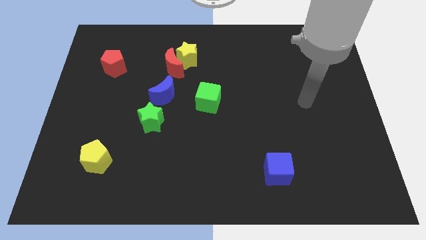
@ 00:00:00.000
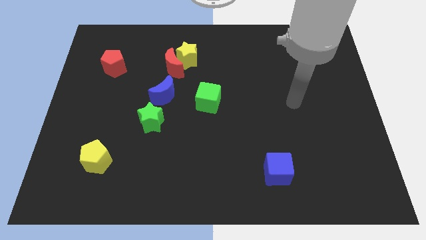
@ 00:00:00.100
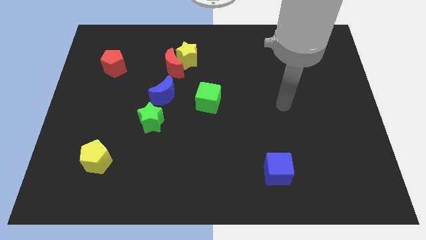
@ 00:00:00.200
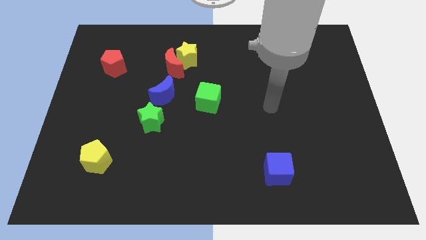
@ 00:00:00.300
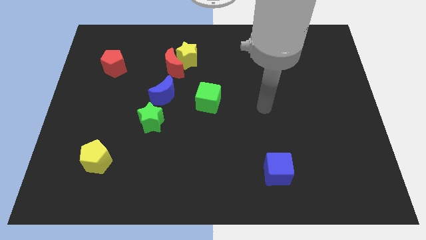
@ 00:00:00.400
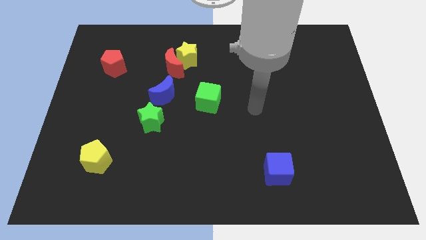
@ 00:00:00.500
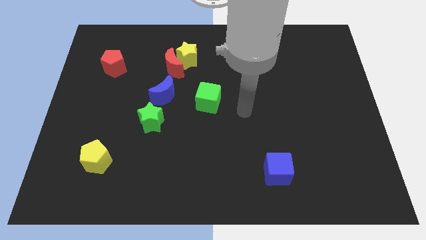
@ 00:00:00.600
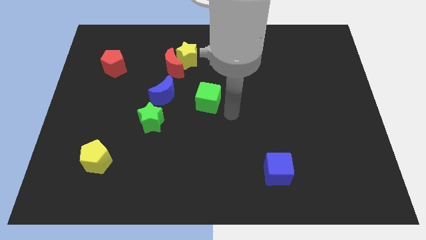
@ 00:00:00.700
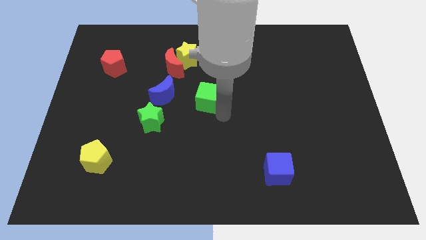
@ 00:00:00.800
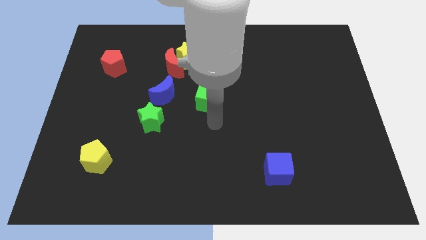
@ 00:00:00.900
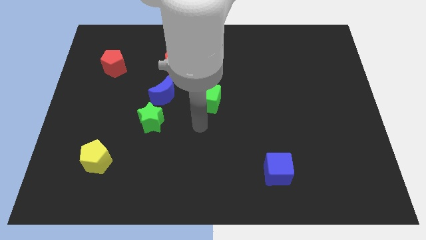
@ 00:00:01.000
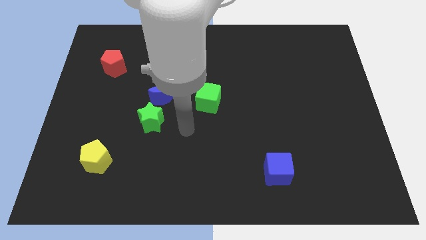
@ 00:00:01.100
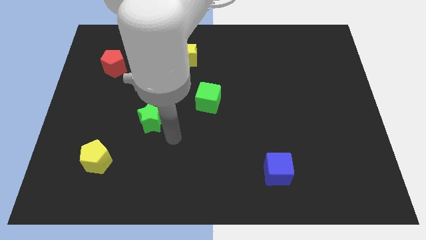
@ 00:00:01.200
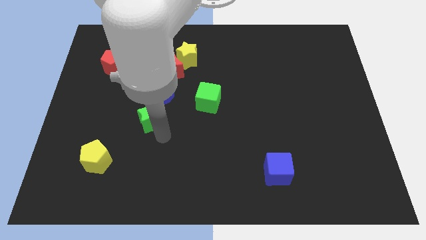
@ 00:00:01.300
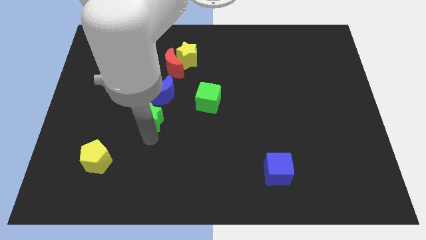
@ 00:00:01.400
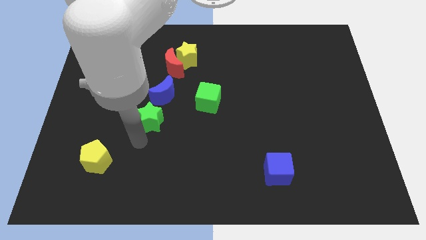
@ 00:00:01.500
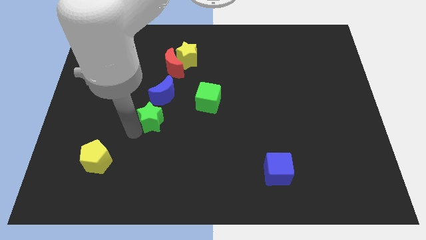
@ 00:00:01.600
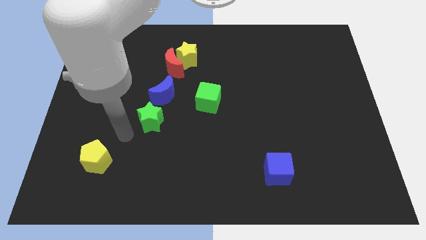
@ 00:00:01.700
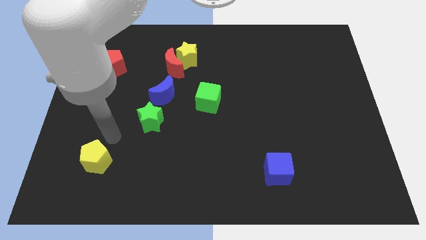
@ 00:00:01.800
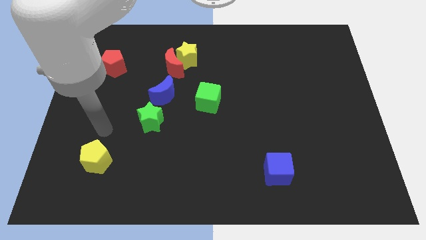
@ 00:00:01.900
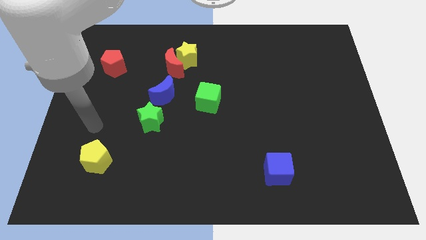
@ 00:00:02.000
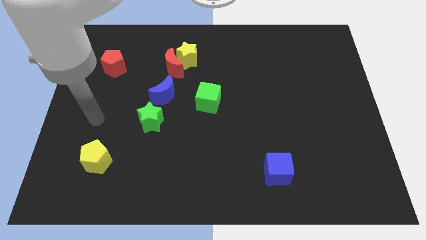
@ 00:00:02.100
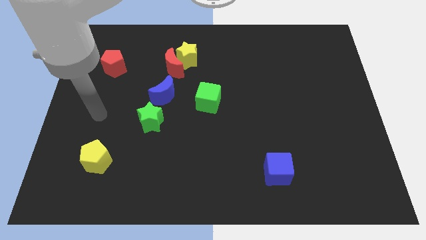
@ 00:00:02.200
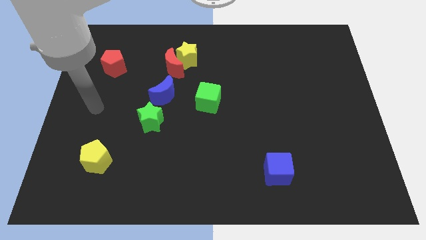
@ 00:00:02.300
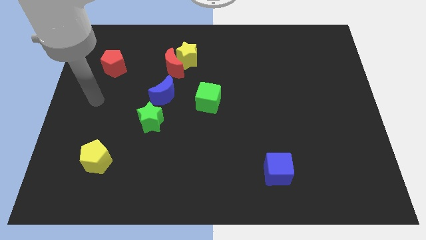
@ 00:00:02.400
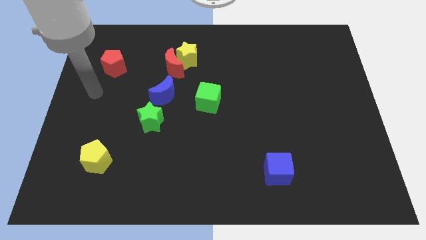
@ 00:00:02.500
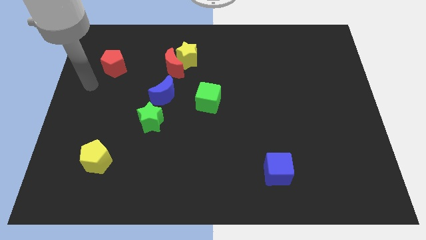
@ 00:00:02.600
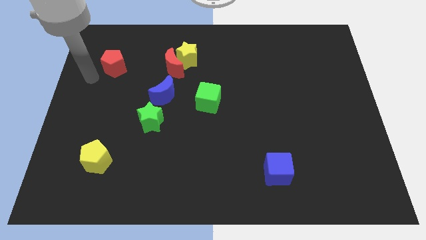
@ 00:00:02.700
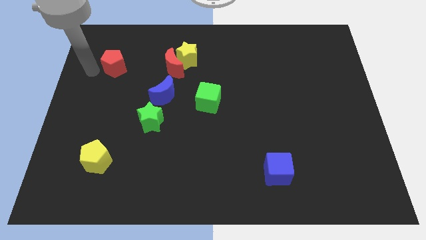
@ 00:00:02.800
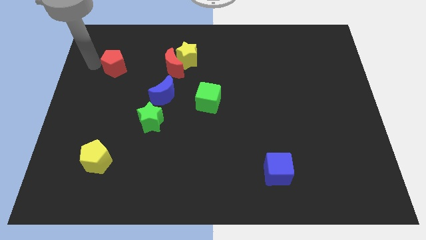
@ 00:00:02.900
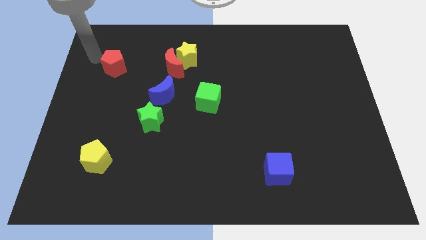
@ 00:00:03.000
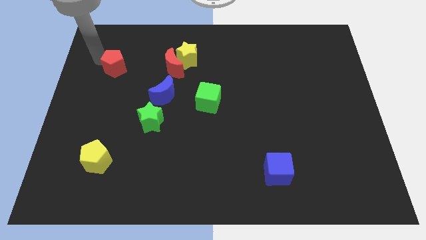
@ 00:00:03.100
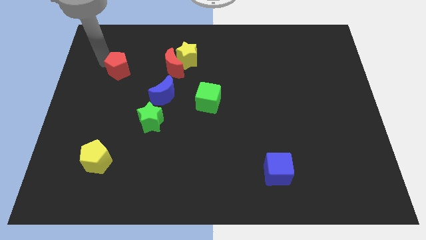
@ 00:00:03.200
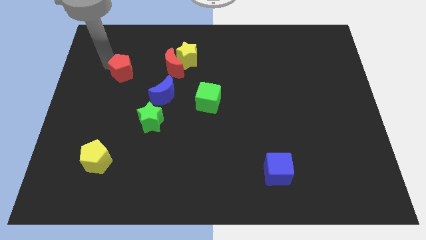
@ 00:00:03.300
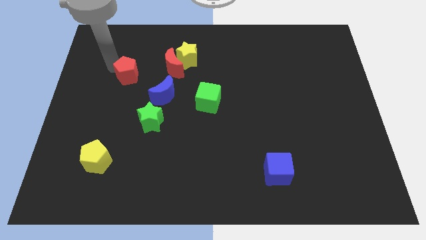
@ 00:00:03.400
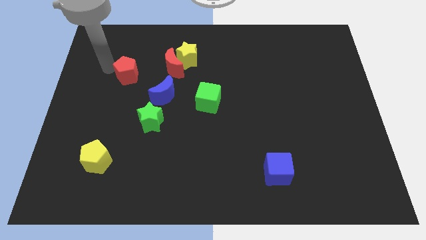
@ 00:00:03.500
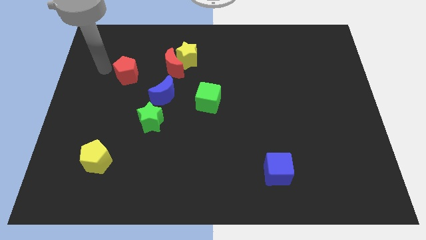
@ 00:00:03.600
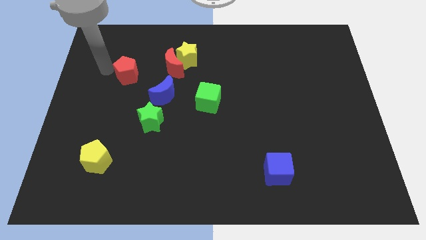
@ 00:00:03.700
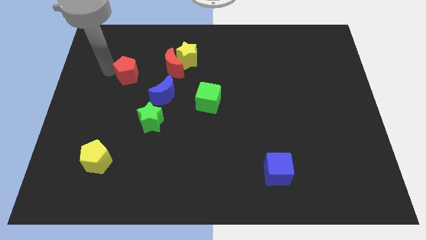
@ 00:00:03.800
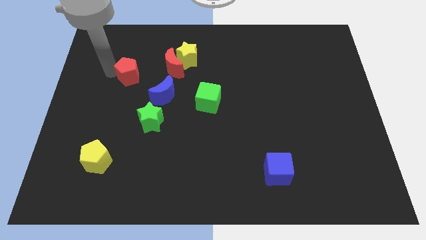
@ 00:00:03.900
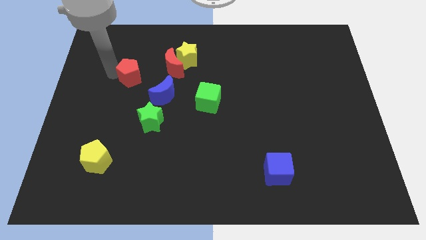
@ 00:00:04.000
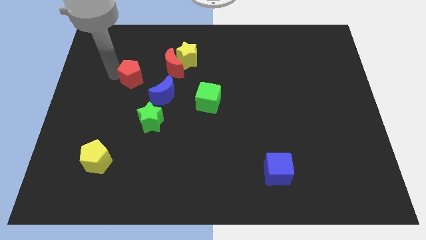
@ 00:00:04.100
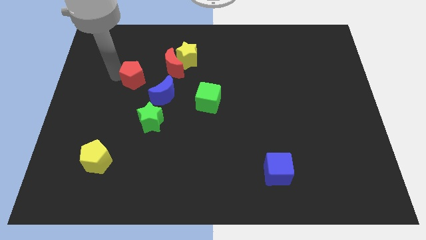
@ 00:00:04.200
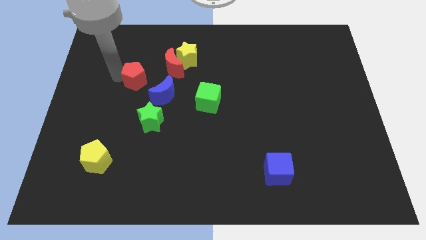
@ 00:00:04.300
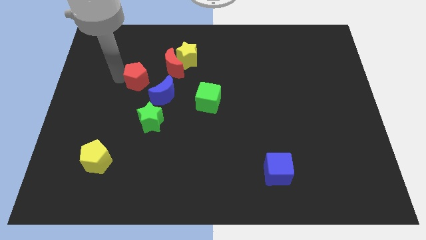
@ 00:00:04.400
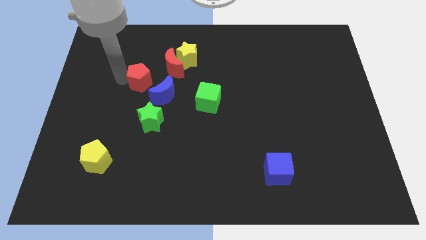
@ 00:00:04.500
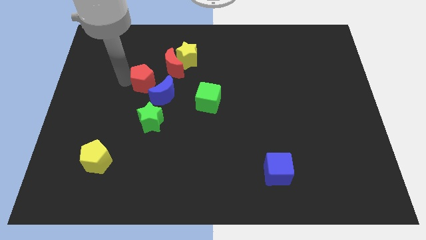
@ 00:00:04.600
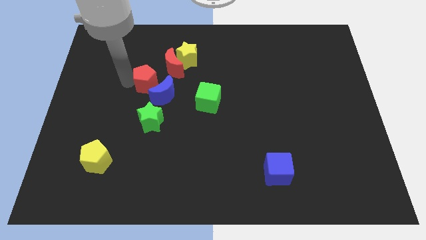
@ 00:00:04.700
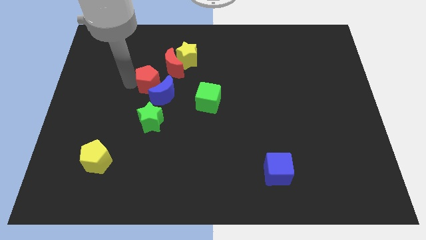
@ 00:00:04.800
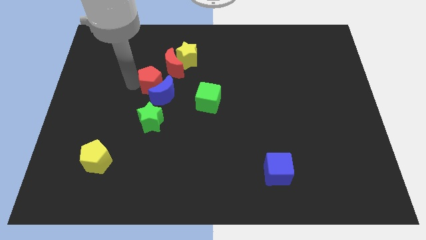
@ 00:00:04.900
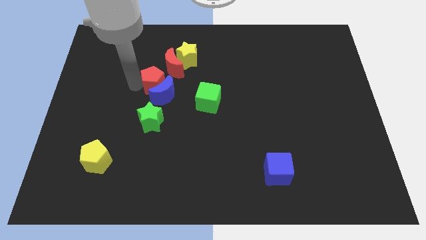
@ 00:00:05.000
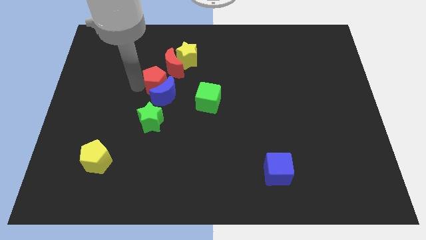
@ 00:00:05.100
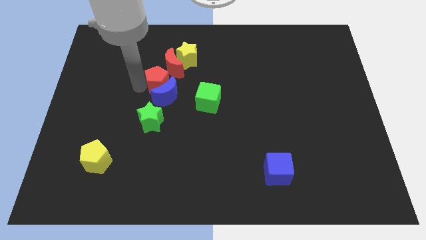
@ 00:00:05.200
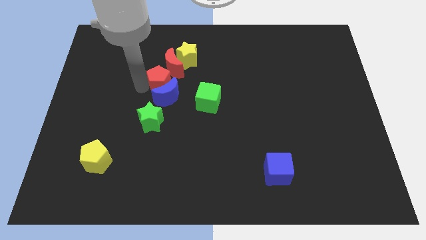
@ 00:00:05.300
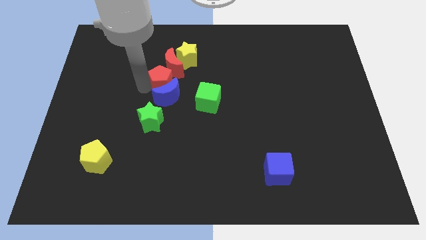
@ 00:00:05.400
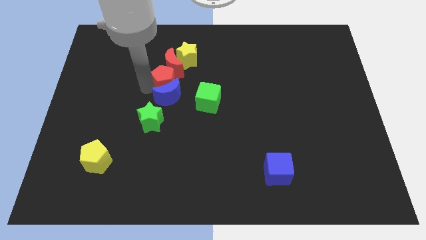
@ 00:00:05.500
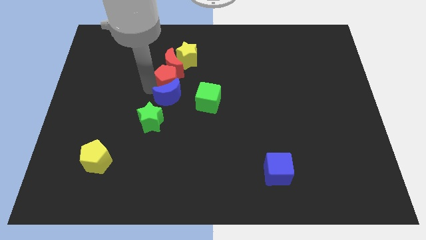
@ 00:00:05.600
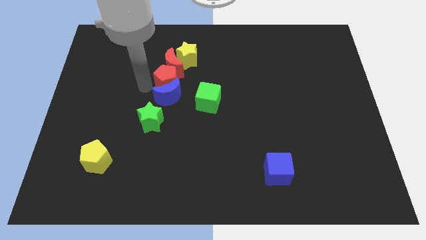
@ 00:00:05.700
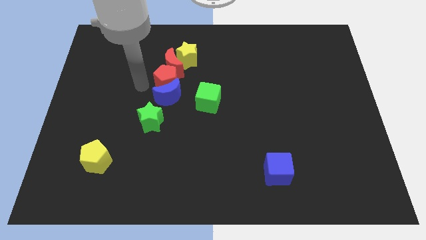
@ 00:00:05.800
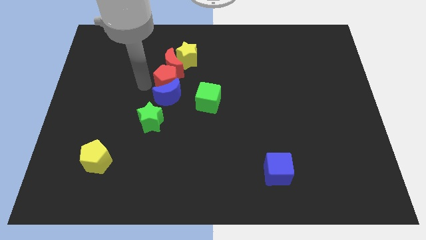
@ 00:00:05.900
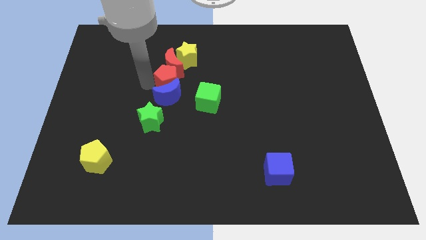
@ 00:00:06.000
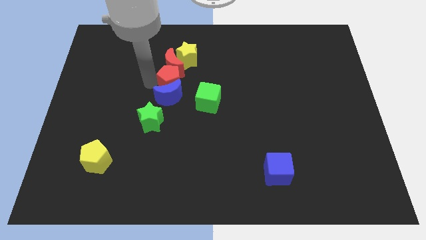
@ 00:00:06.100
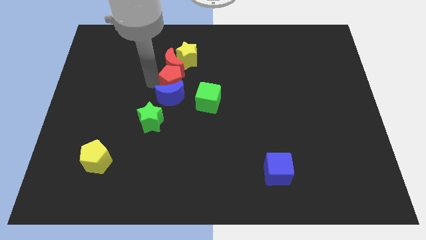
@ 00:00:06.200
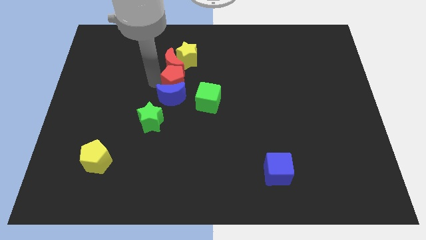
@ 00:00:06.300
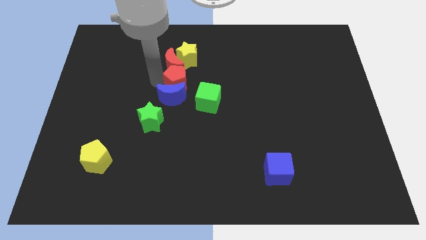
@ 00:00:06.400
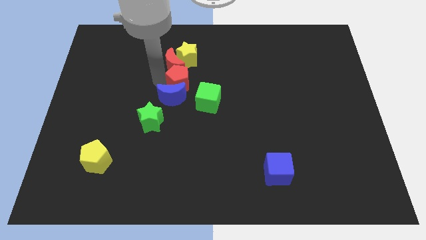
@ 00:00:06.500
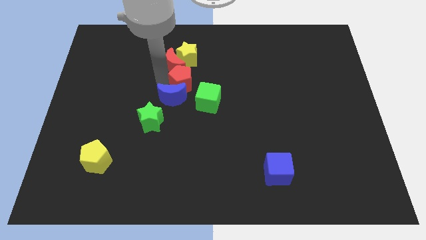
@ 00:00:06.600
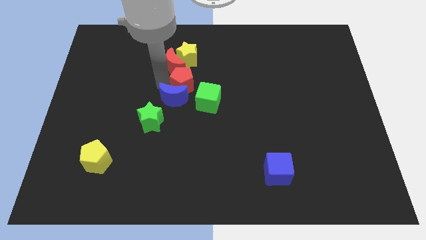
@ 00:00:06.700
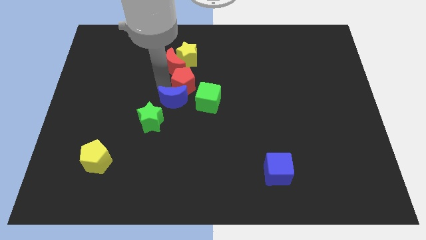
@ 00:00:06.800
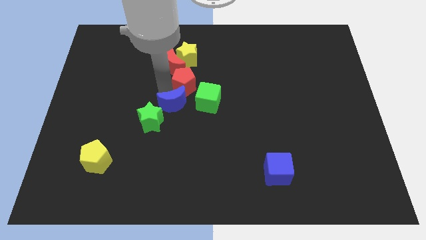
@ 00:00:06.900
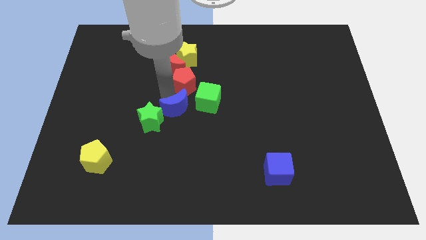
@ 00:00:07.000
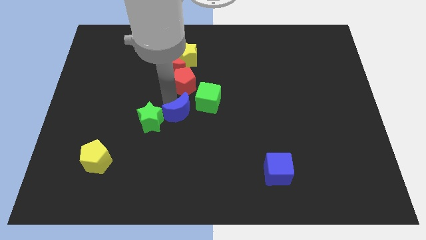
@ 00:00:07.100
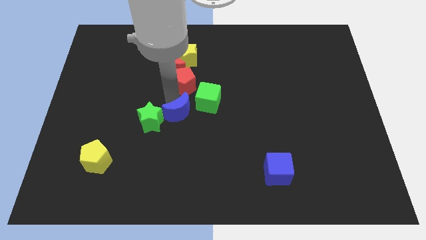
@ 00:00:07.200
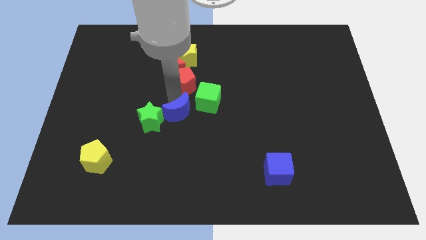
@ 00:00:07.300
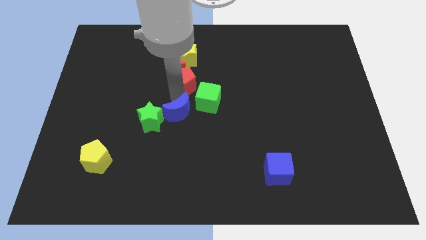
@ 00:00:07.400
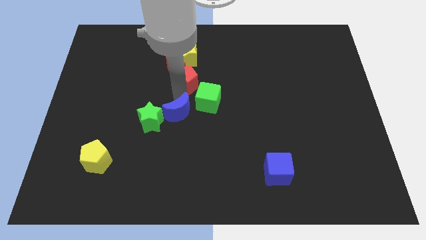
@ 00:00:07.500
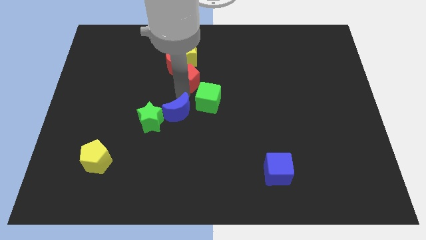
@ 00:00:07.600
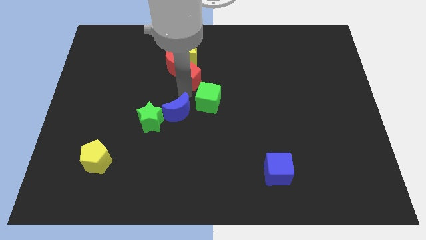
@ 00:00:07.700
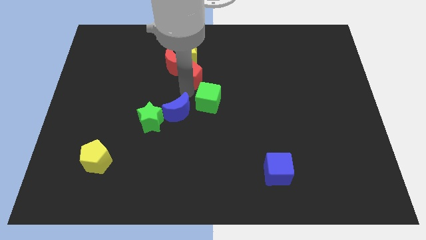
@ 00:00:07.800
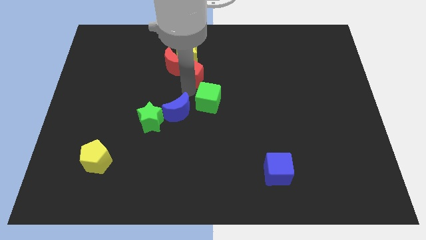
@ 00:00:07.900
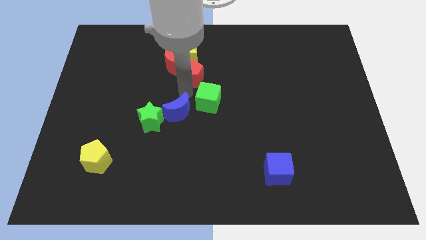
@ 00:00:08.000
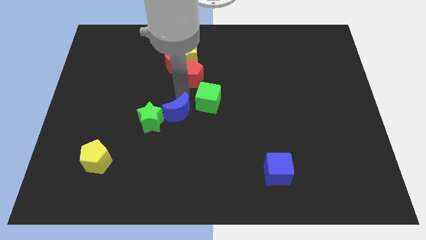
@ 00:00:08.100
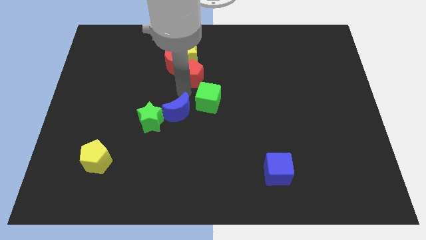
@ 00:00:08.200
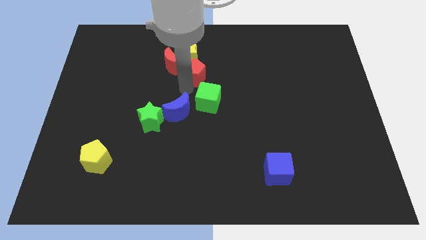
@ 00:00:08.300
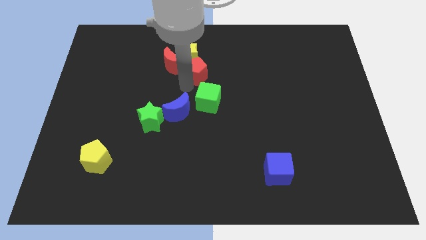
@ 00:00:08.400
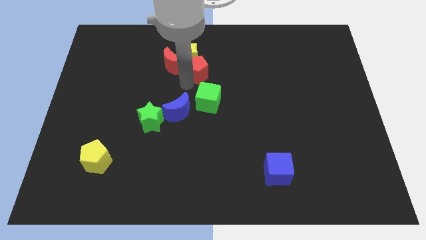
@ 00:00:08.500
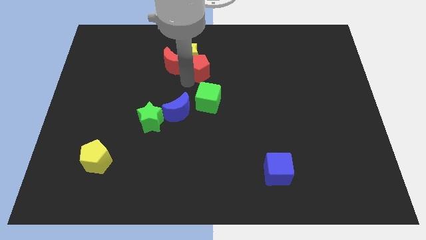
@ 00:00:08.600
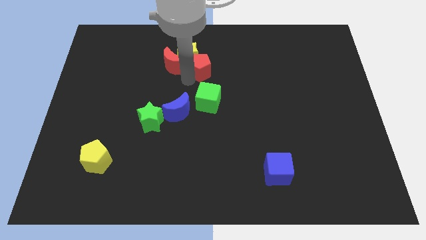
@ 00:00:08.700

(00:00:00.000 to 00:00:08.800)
slide the red pentagon just right of the yellow star
